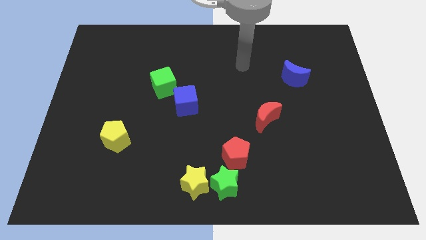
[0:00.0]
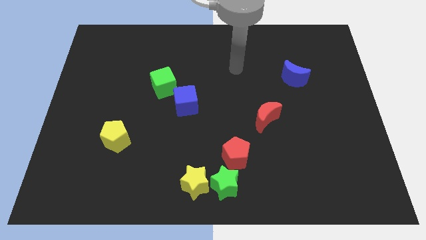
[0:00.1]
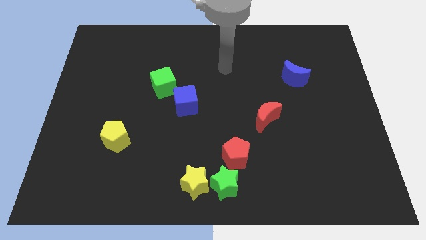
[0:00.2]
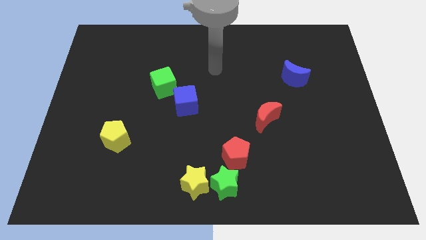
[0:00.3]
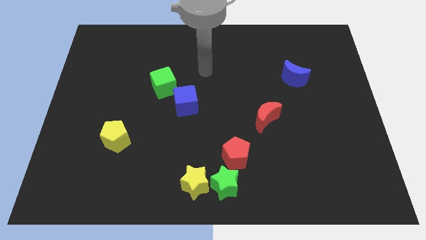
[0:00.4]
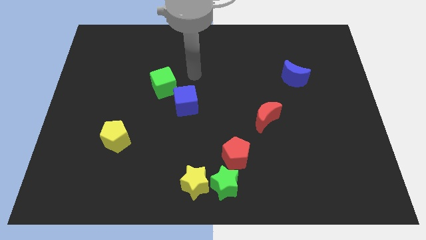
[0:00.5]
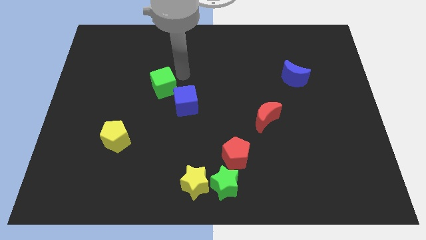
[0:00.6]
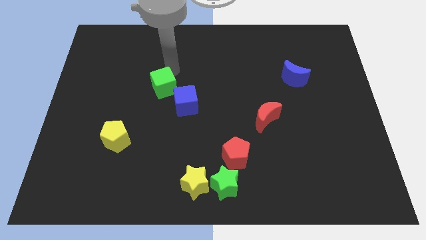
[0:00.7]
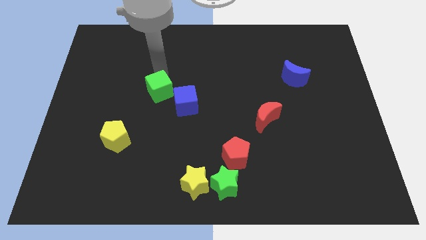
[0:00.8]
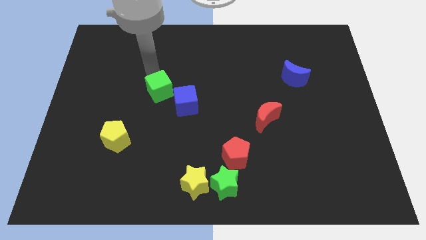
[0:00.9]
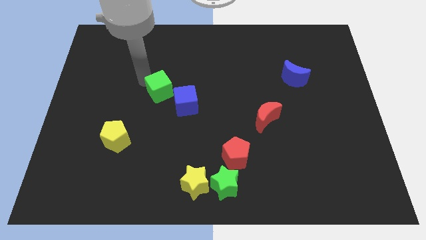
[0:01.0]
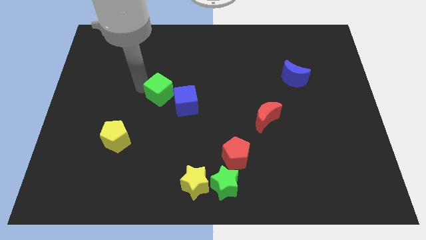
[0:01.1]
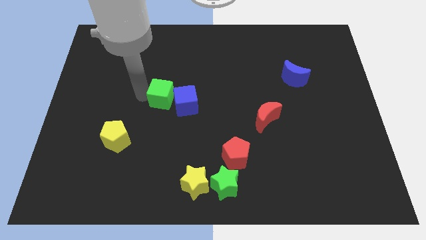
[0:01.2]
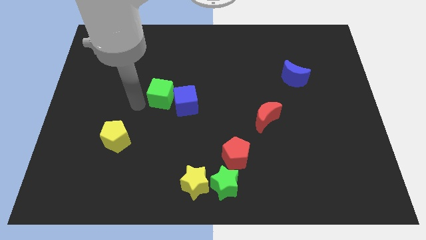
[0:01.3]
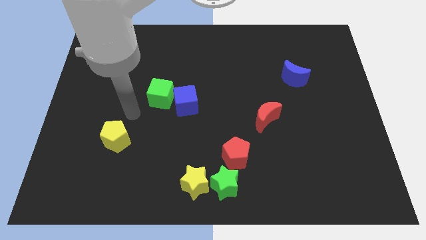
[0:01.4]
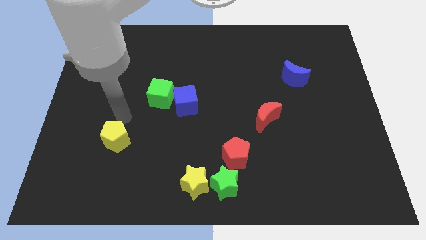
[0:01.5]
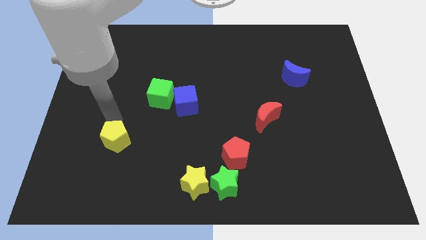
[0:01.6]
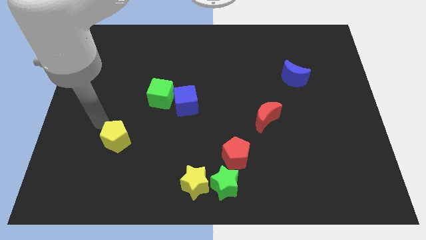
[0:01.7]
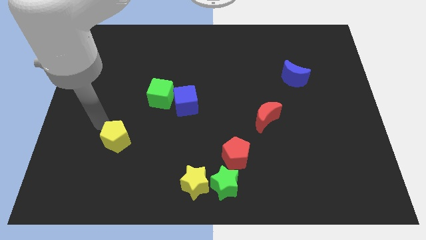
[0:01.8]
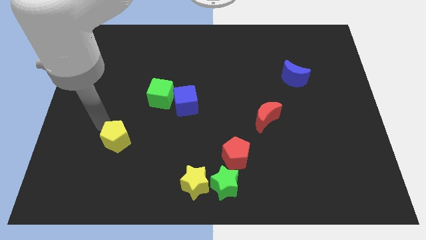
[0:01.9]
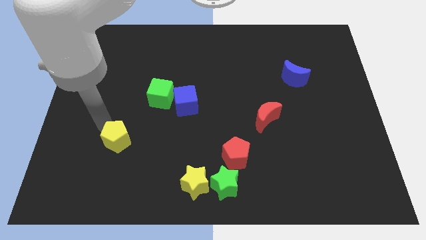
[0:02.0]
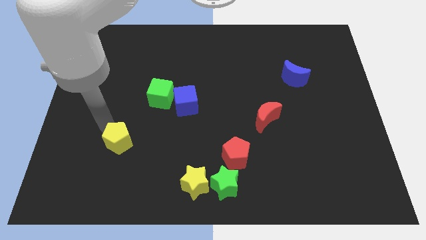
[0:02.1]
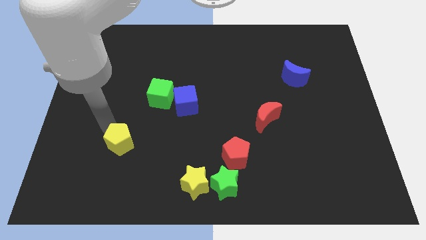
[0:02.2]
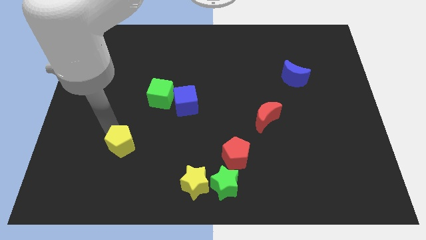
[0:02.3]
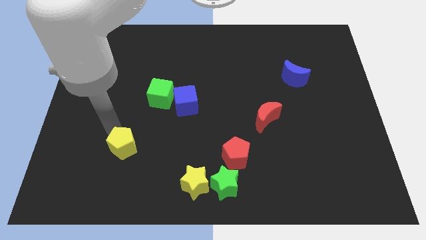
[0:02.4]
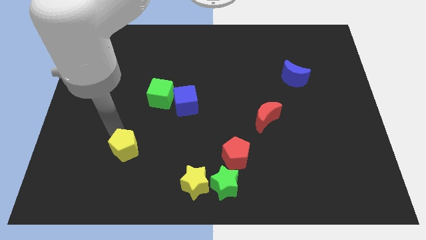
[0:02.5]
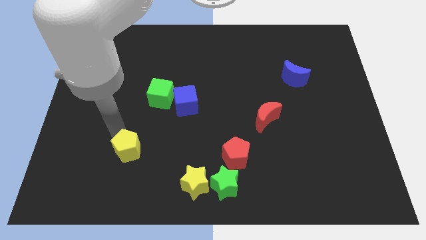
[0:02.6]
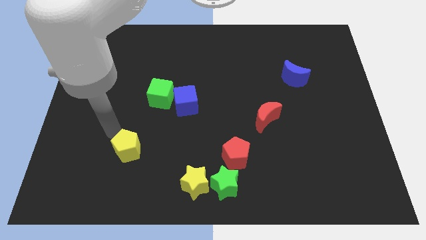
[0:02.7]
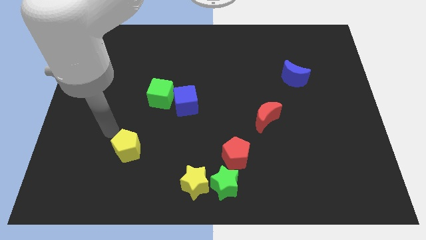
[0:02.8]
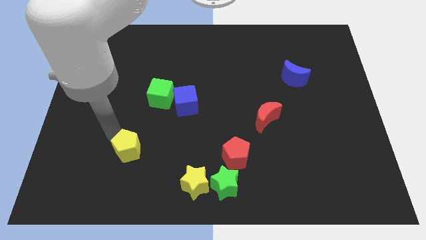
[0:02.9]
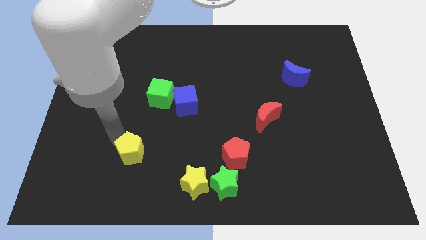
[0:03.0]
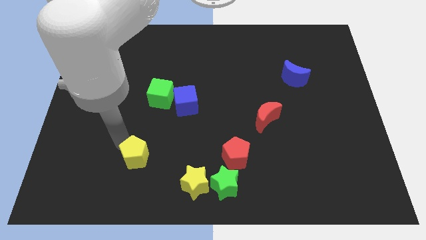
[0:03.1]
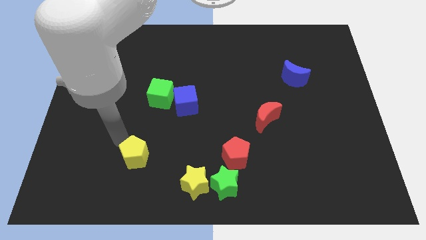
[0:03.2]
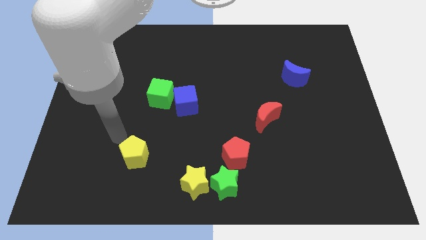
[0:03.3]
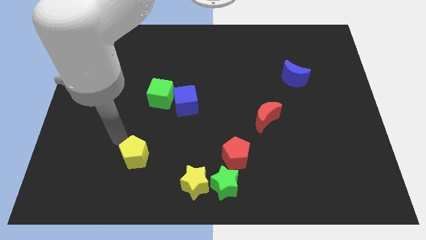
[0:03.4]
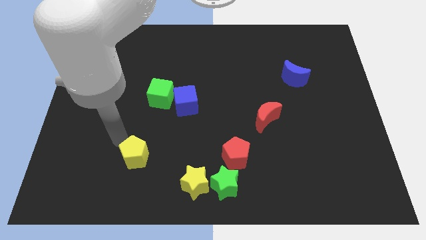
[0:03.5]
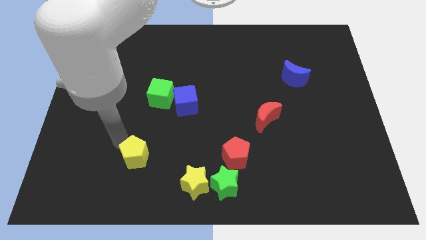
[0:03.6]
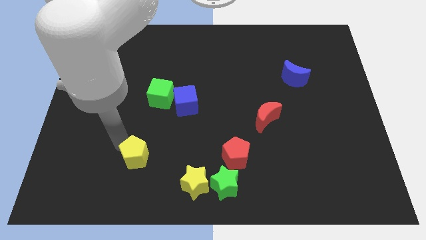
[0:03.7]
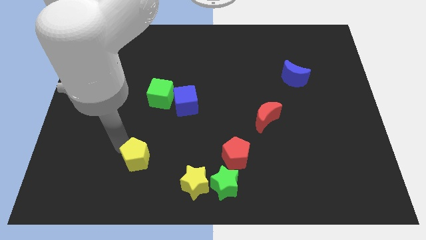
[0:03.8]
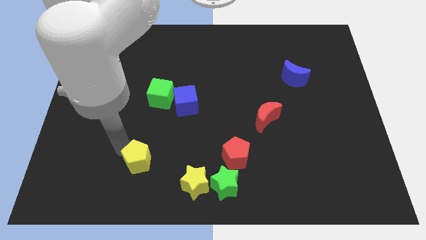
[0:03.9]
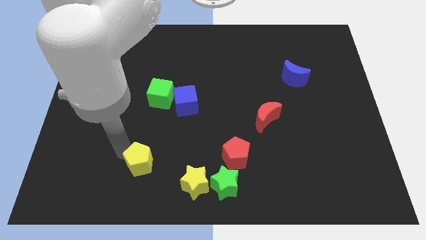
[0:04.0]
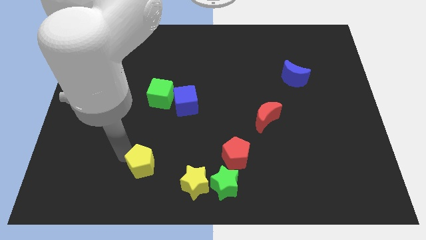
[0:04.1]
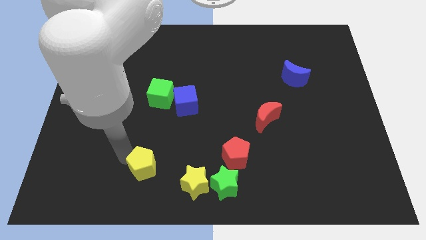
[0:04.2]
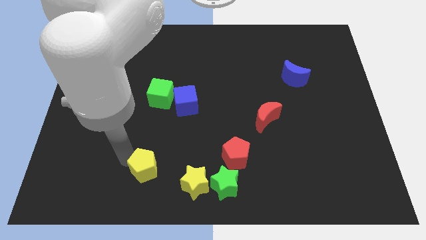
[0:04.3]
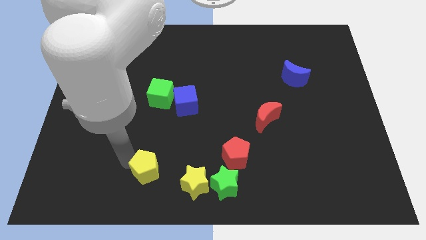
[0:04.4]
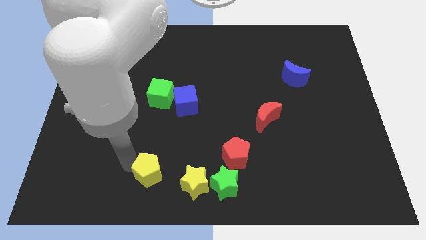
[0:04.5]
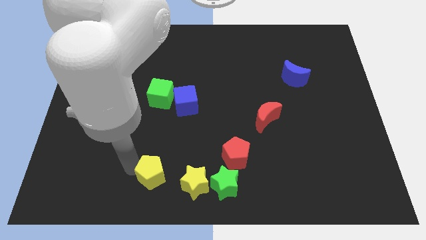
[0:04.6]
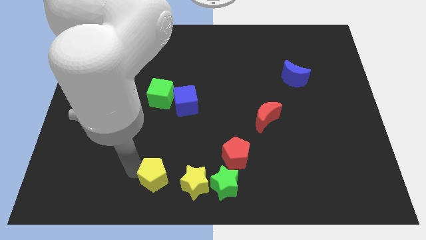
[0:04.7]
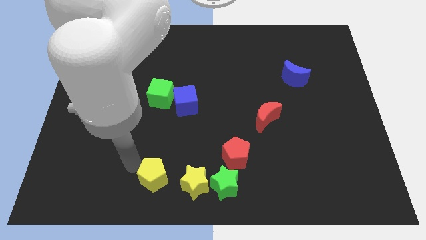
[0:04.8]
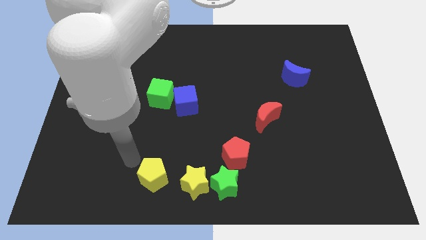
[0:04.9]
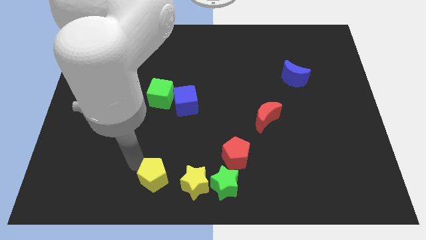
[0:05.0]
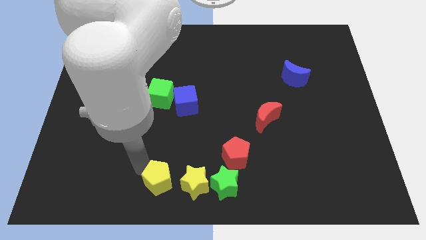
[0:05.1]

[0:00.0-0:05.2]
slide the yellow pentagon to the bottom side

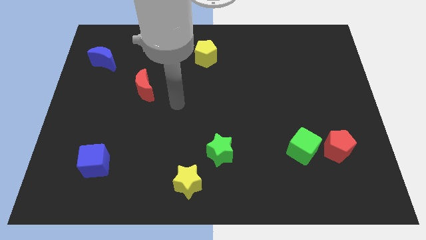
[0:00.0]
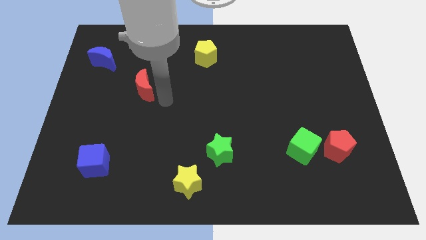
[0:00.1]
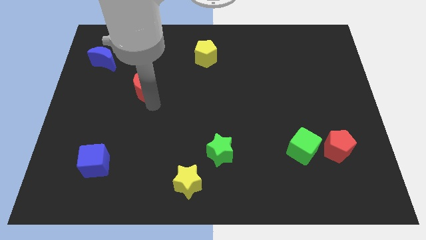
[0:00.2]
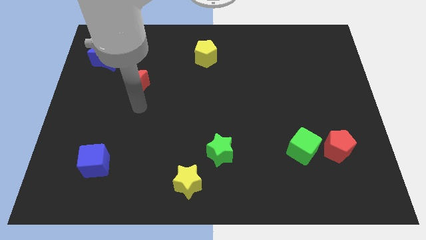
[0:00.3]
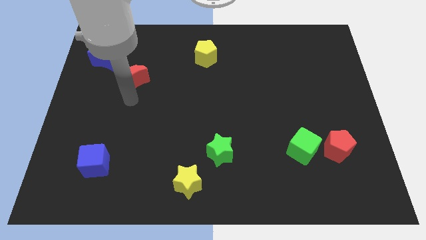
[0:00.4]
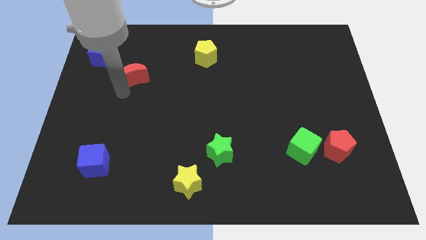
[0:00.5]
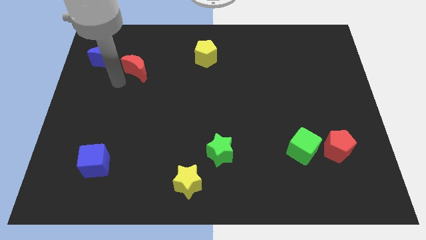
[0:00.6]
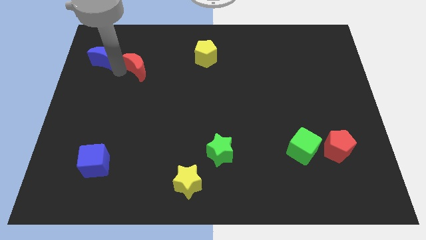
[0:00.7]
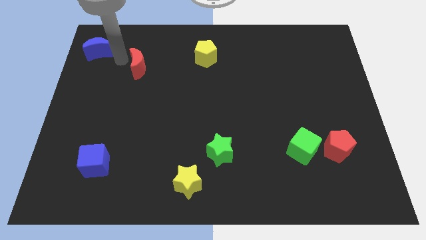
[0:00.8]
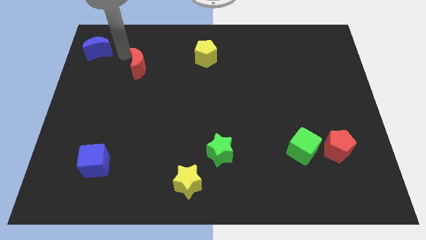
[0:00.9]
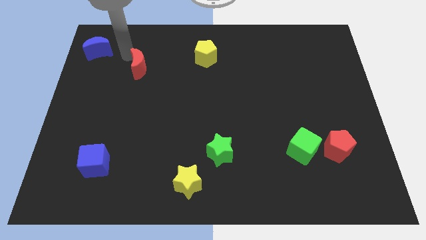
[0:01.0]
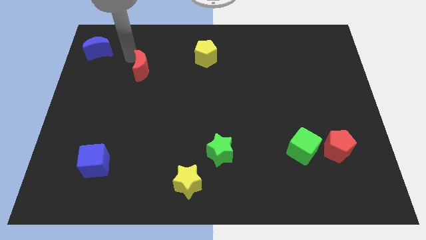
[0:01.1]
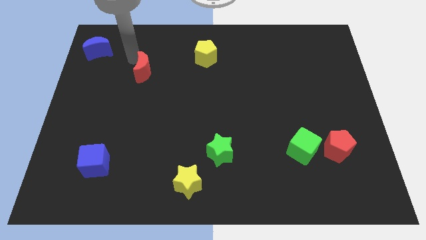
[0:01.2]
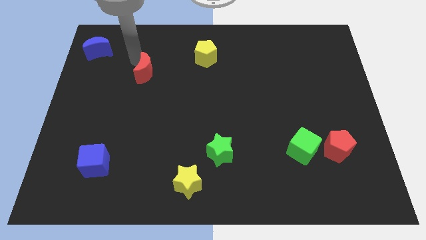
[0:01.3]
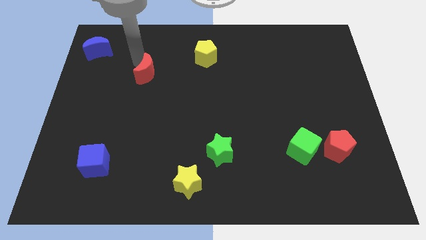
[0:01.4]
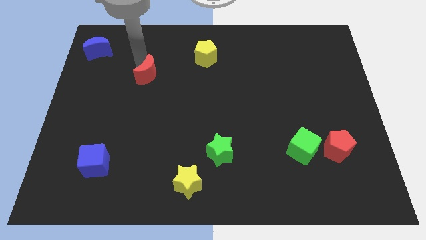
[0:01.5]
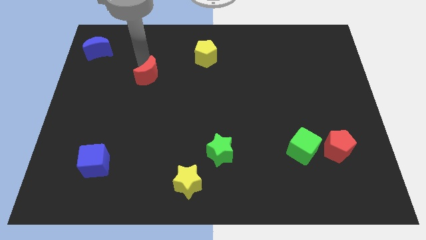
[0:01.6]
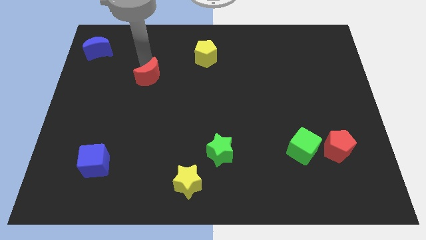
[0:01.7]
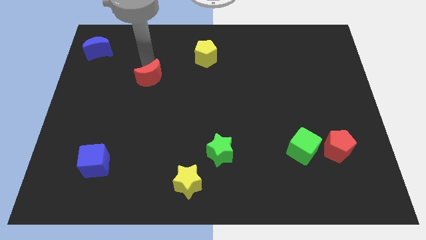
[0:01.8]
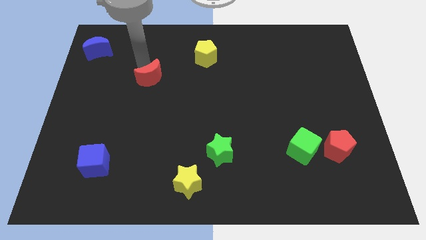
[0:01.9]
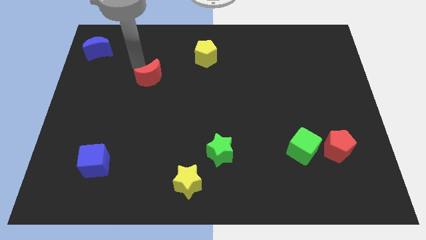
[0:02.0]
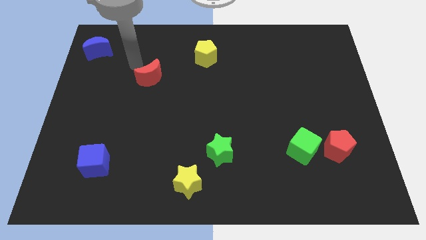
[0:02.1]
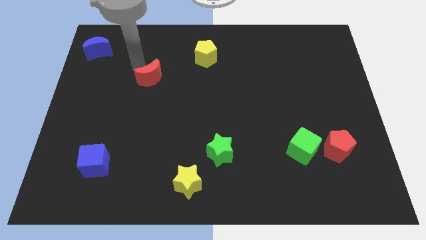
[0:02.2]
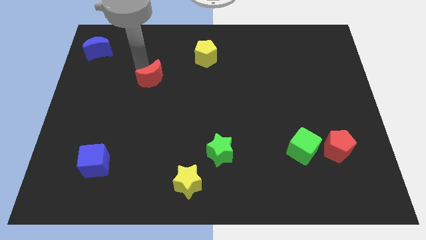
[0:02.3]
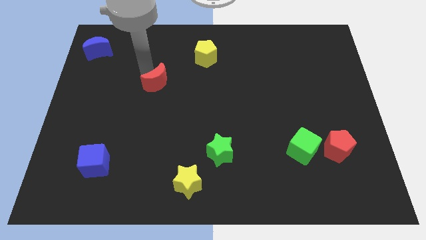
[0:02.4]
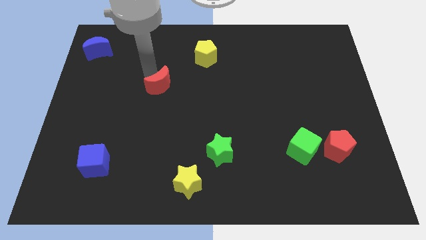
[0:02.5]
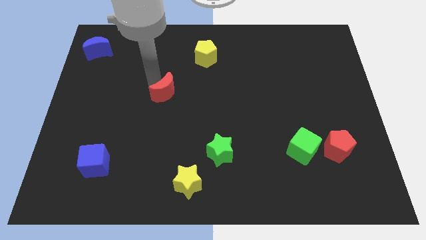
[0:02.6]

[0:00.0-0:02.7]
move the red moon to the center of the board
